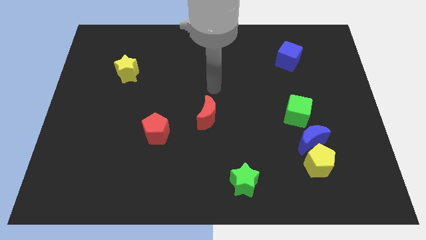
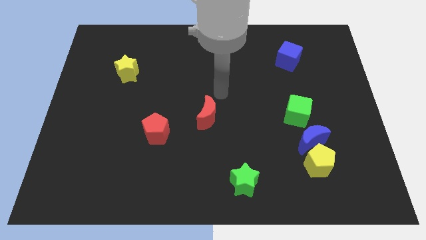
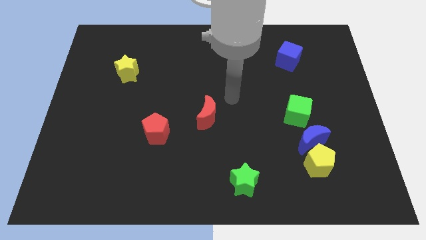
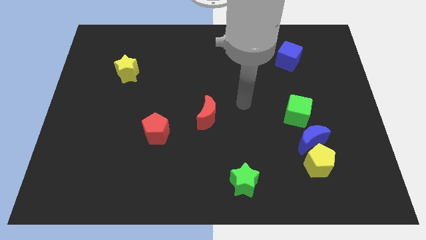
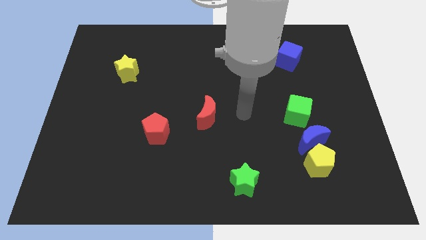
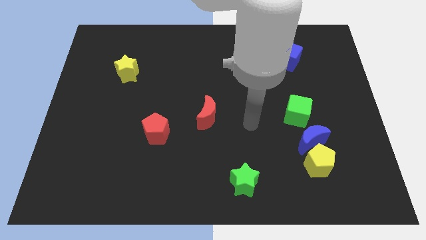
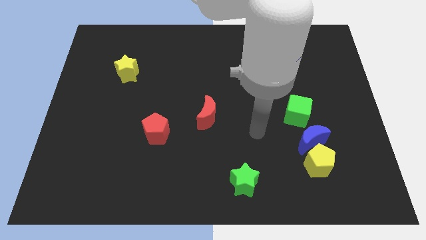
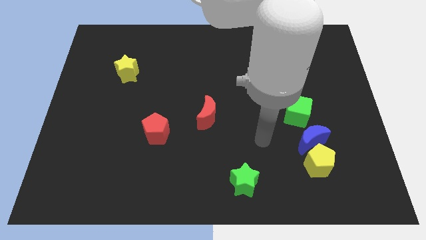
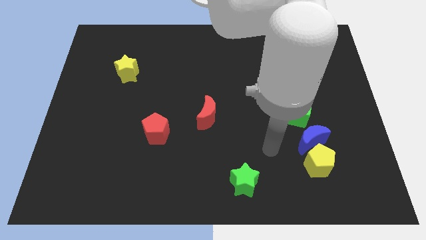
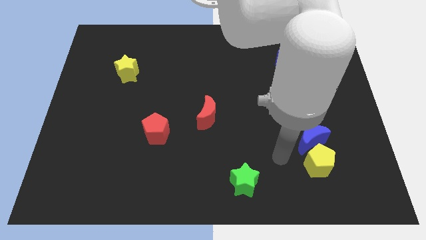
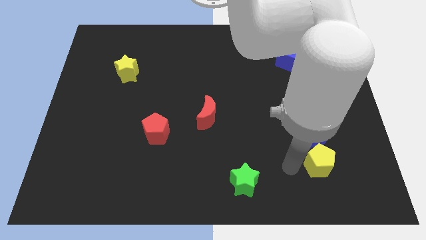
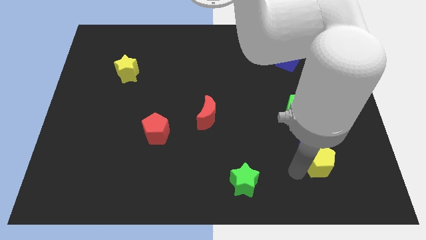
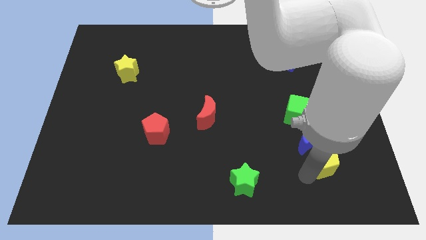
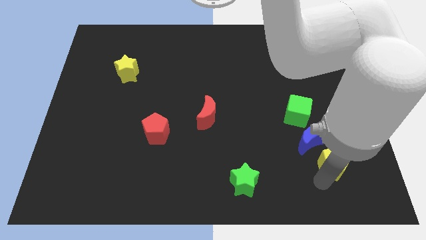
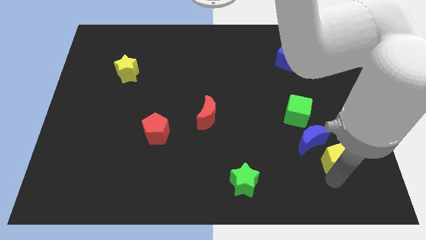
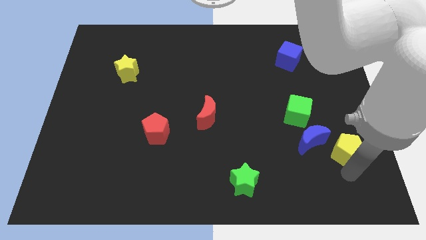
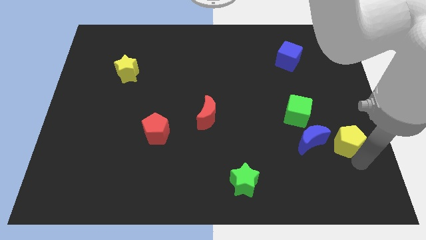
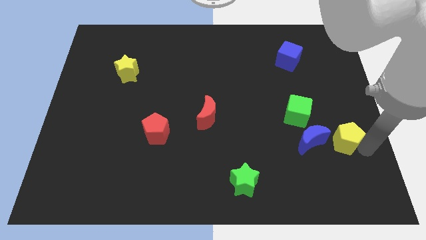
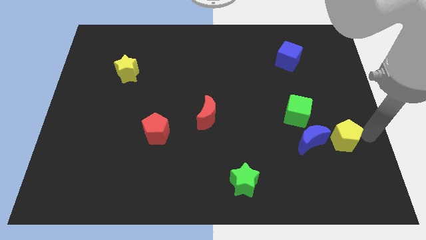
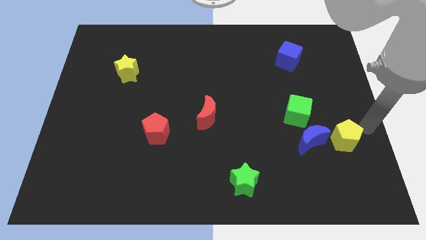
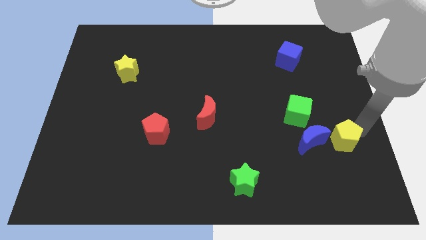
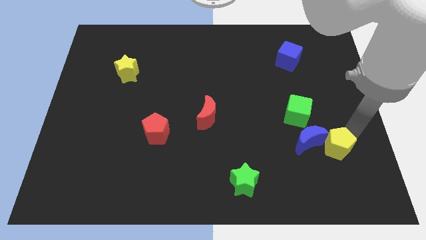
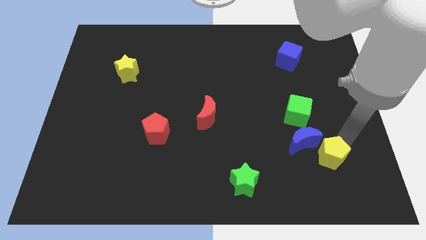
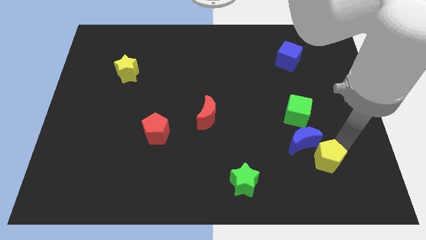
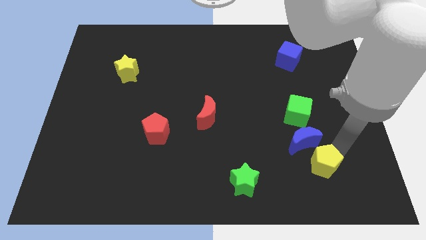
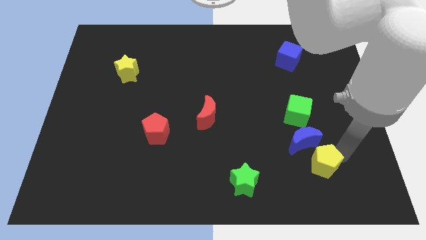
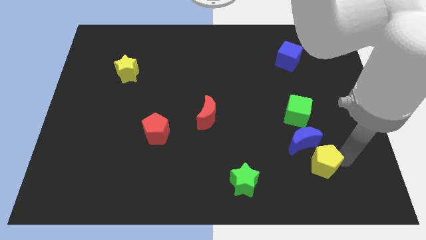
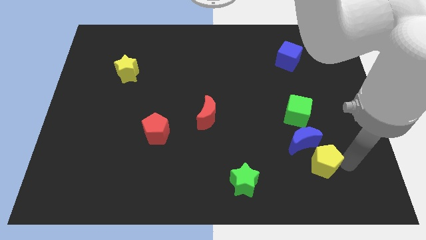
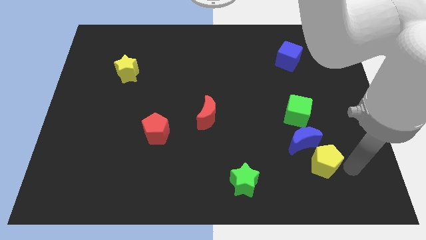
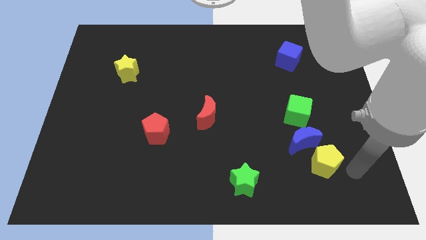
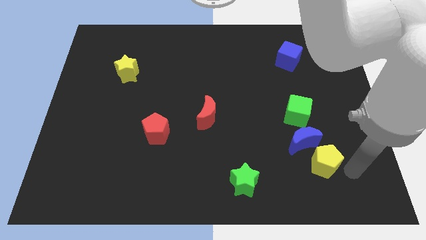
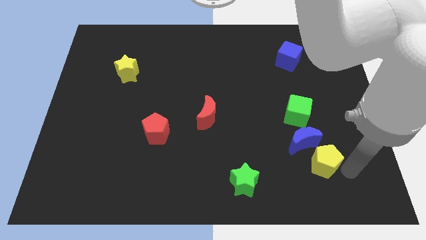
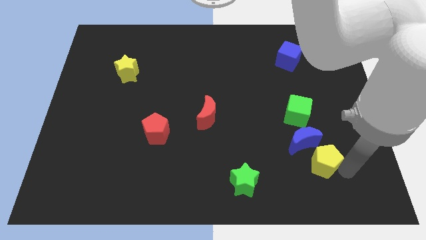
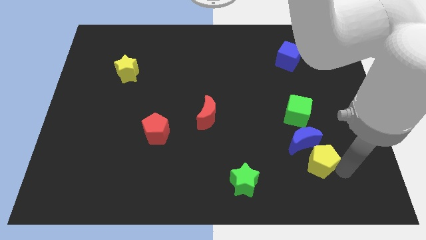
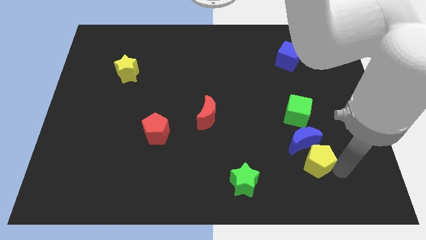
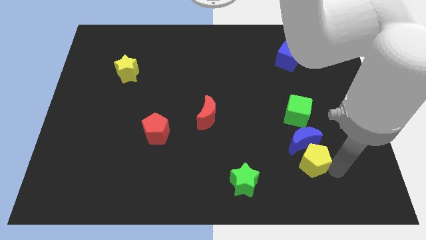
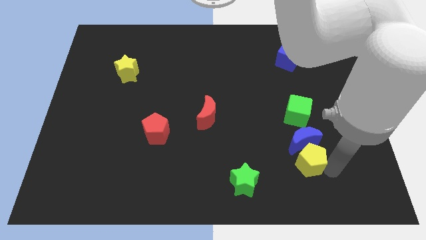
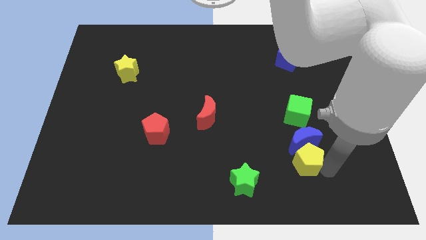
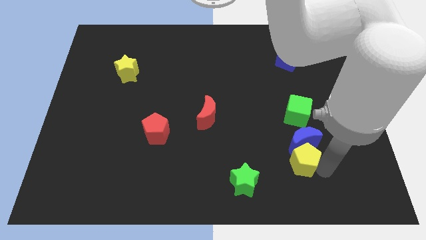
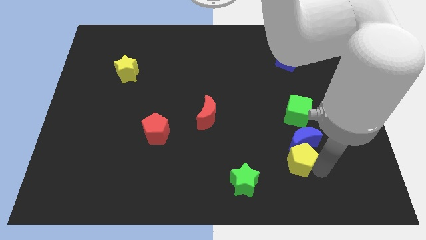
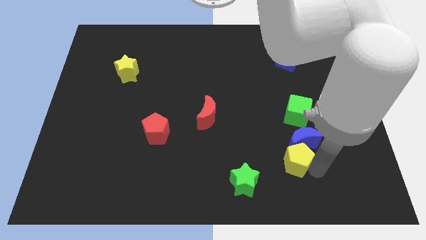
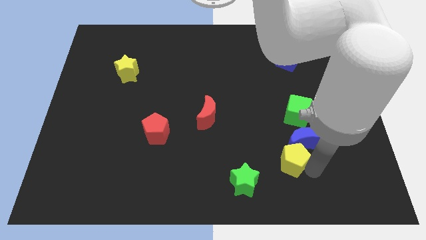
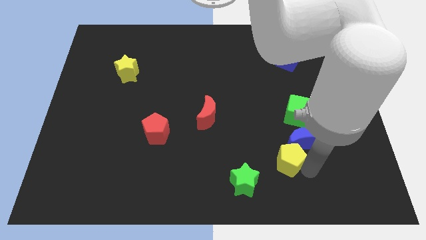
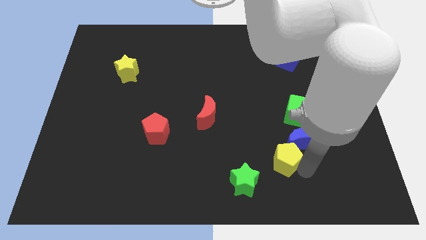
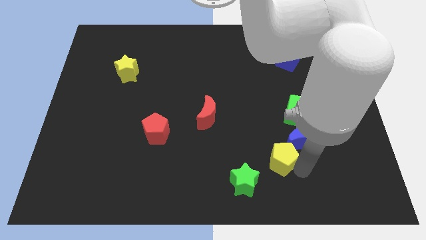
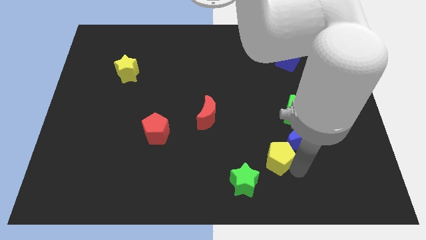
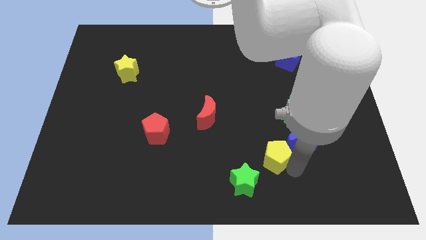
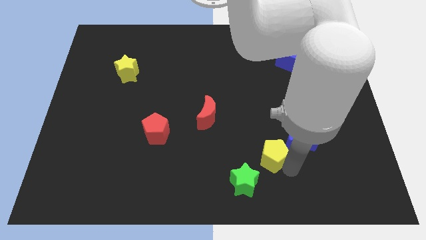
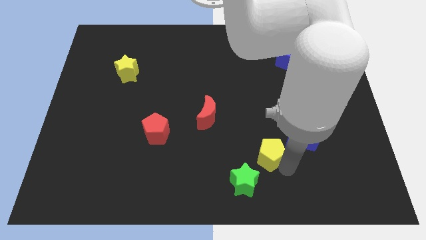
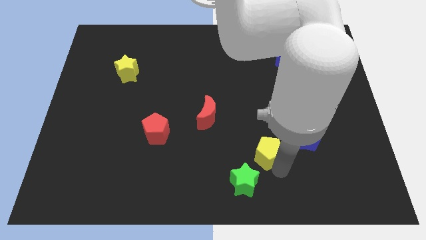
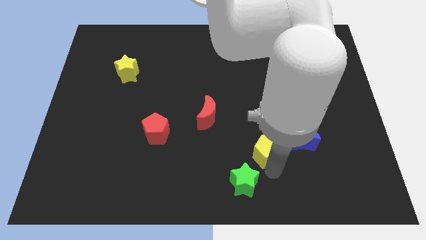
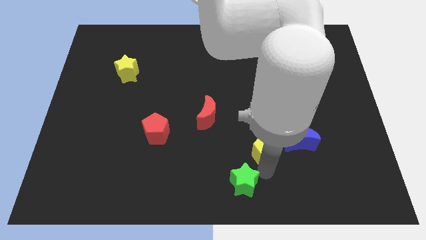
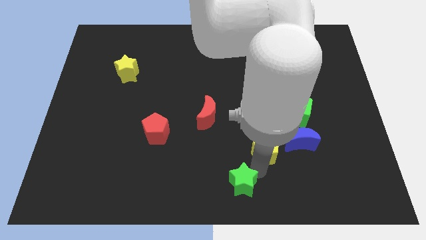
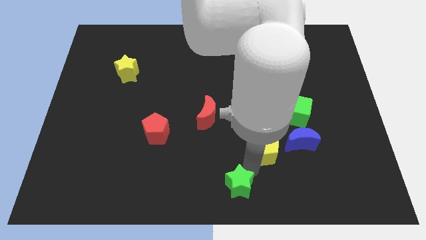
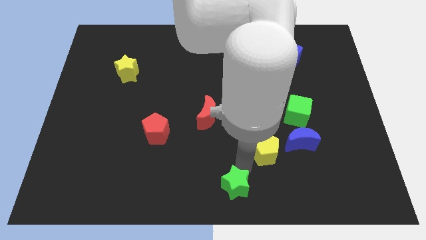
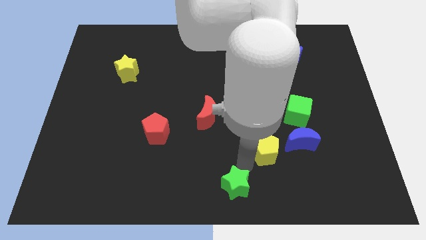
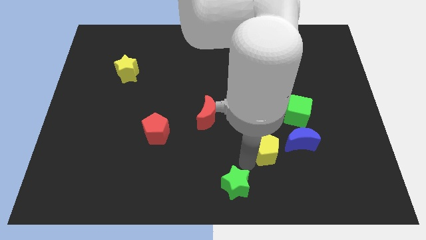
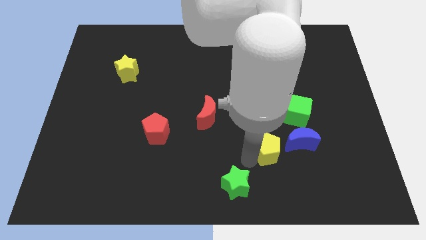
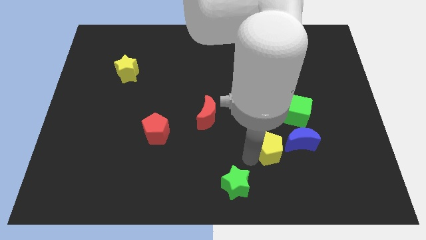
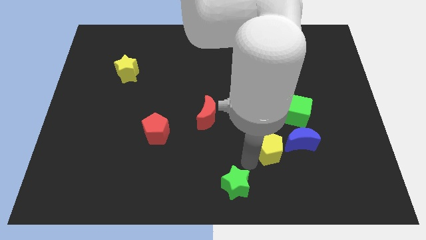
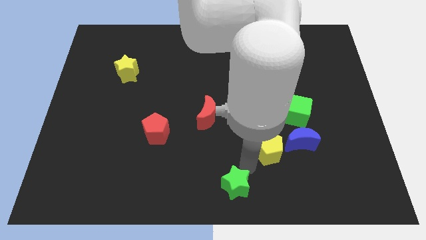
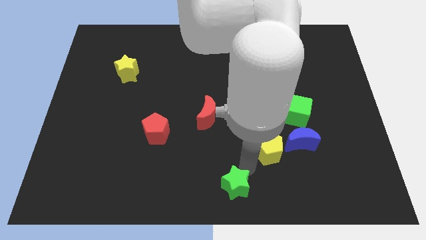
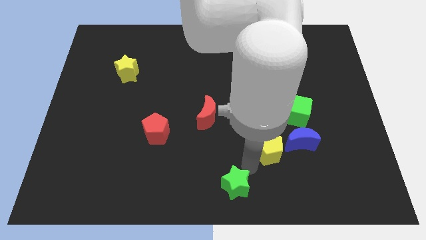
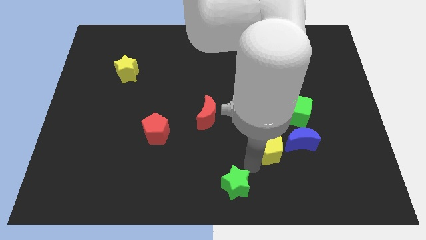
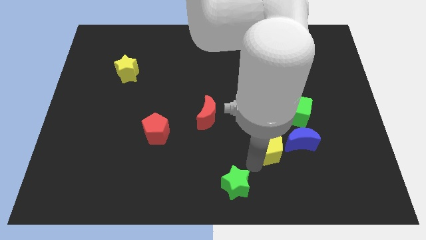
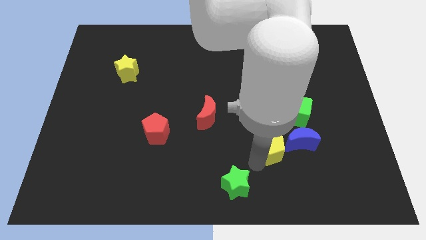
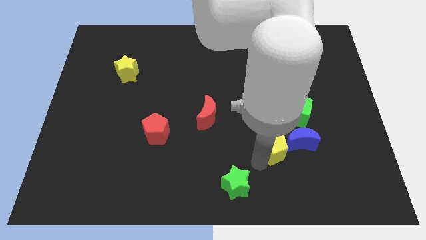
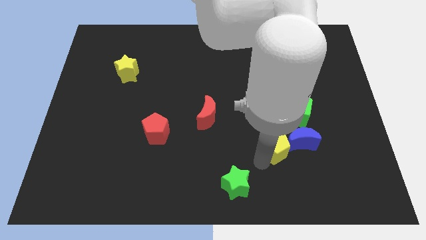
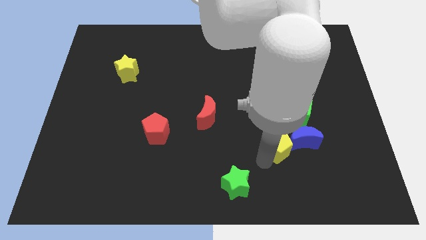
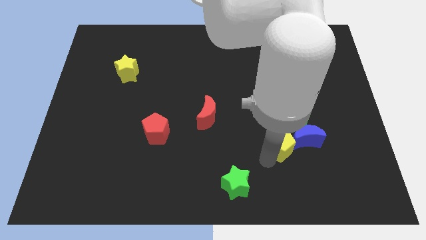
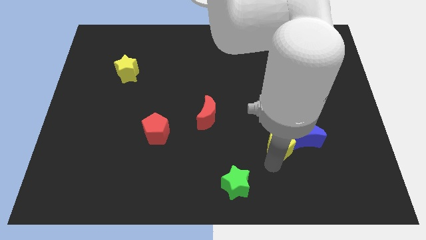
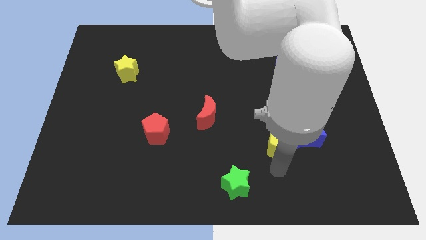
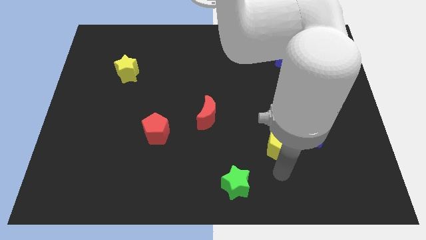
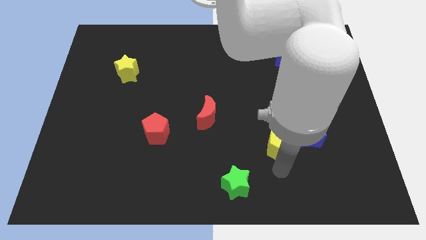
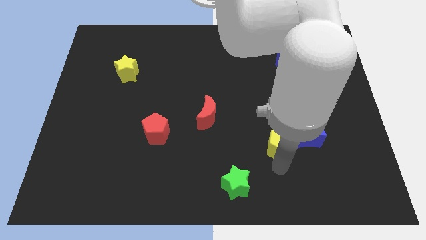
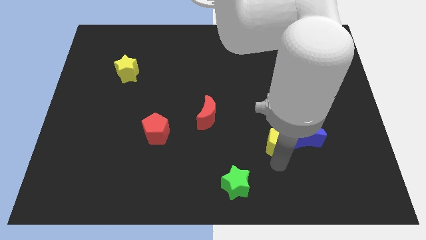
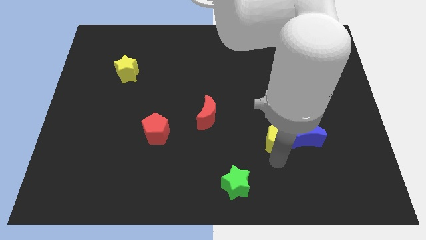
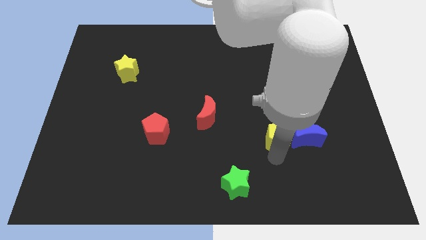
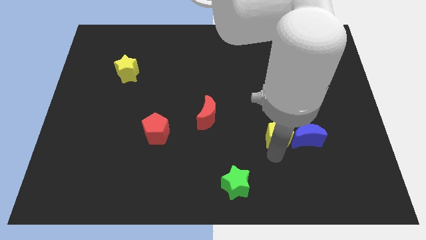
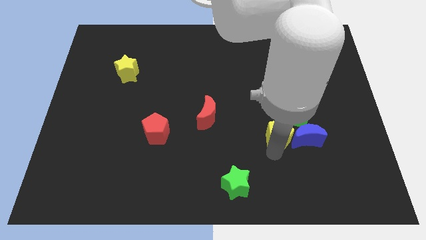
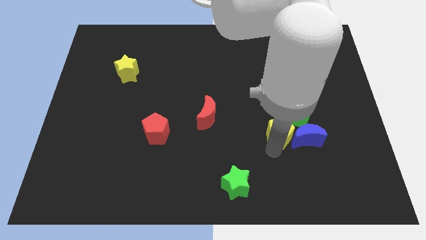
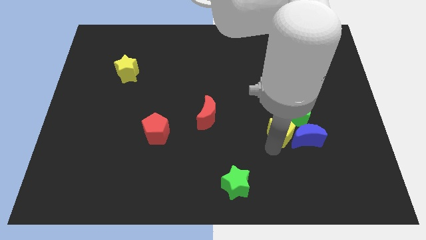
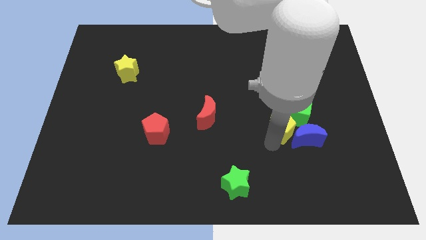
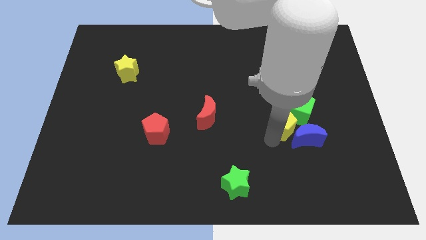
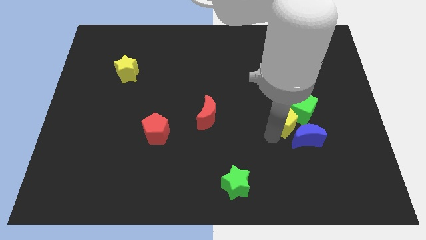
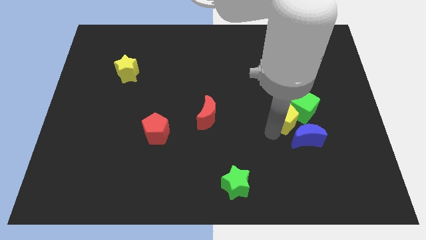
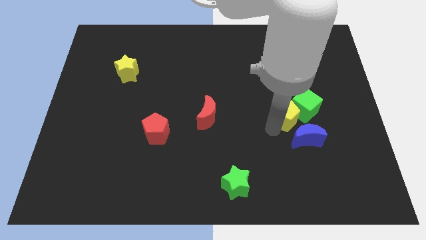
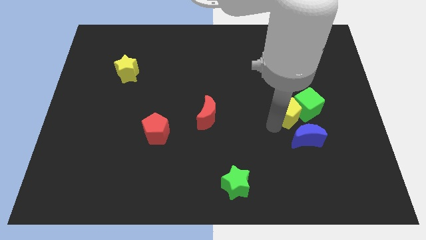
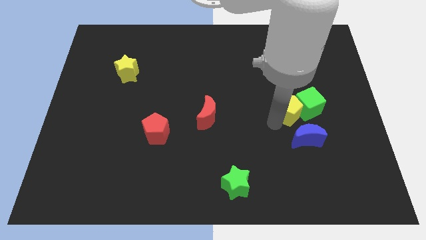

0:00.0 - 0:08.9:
move the yellow pentagon to the top left of the green cube
